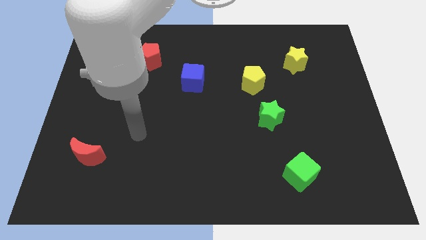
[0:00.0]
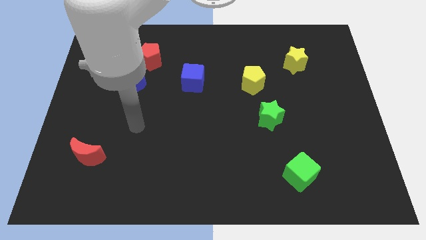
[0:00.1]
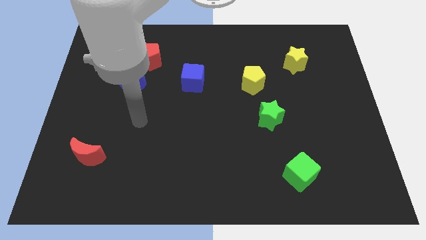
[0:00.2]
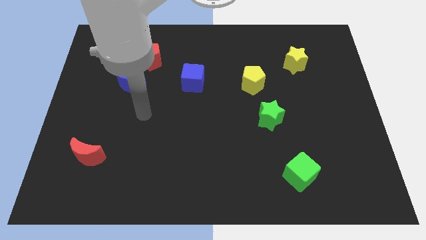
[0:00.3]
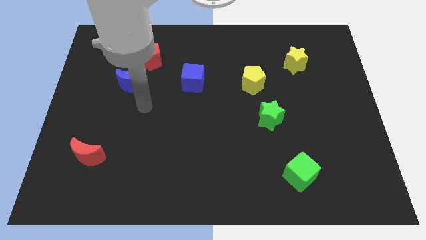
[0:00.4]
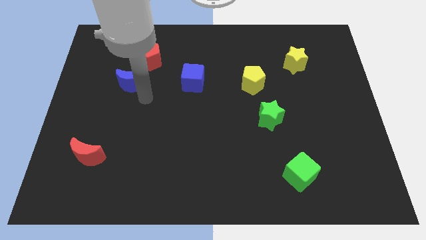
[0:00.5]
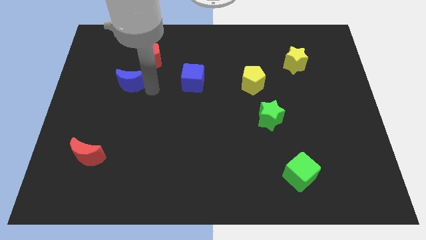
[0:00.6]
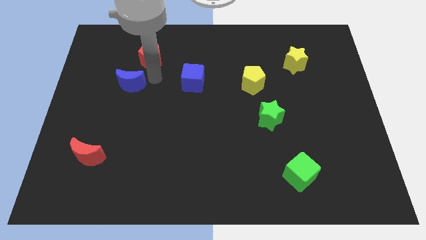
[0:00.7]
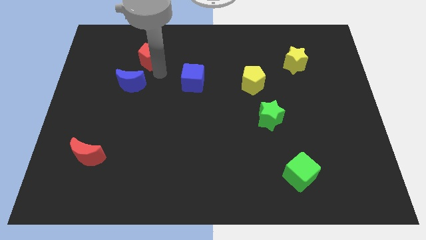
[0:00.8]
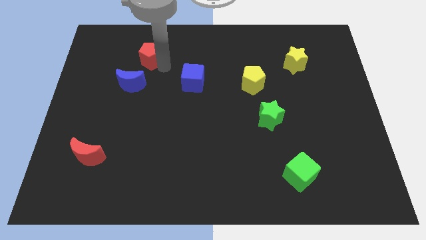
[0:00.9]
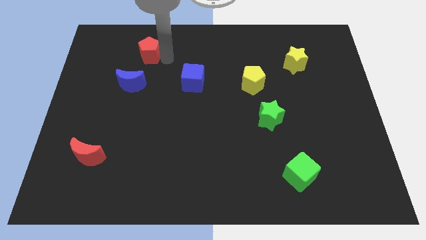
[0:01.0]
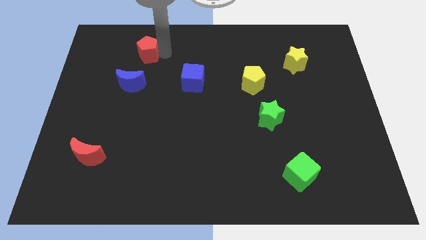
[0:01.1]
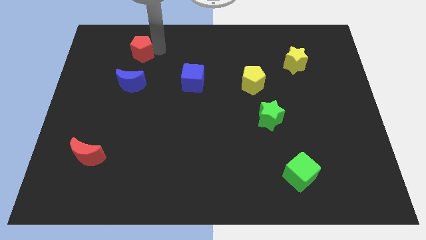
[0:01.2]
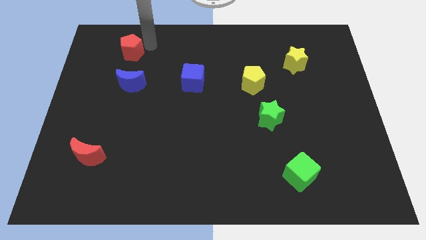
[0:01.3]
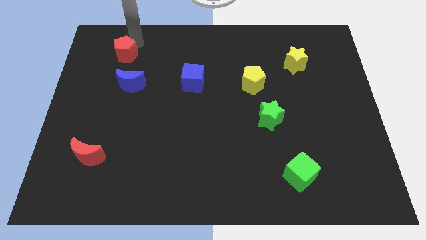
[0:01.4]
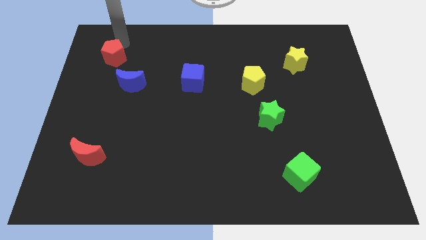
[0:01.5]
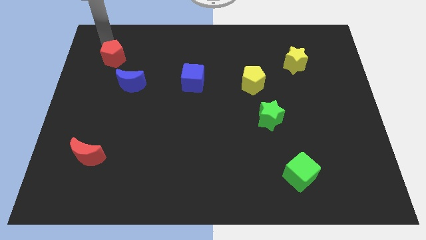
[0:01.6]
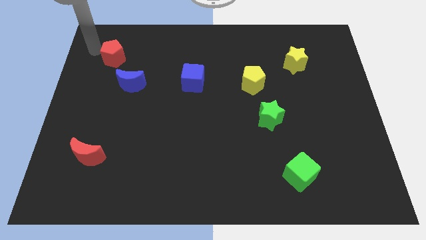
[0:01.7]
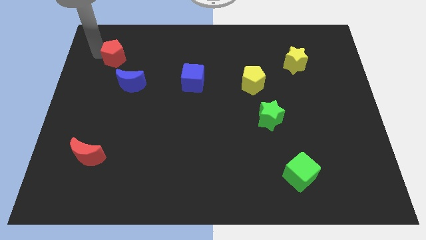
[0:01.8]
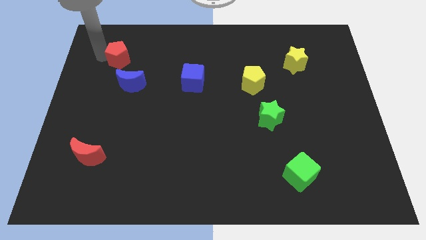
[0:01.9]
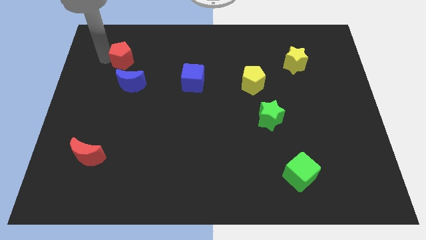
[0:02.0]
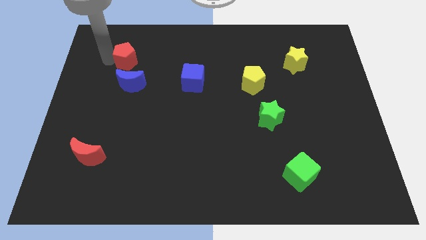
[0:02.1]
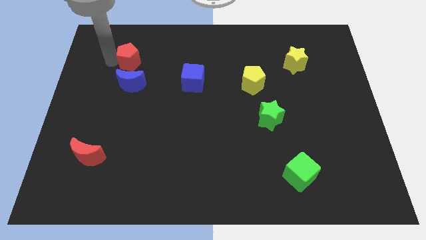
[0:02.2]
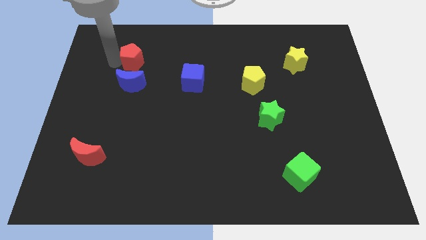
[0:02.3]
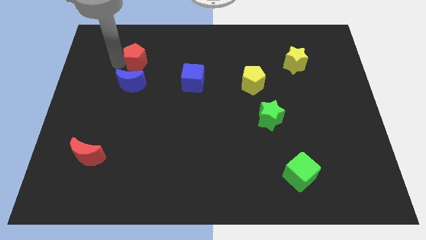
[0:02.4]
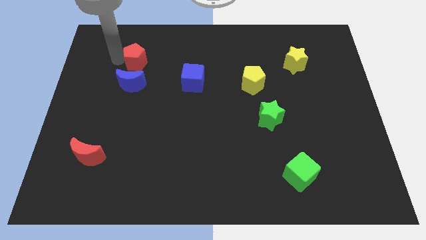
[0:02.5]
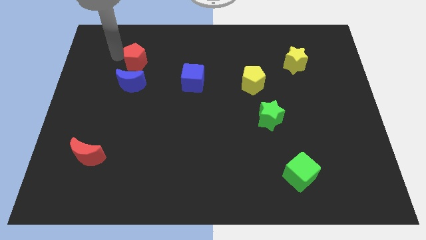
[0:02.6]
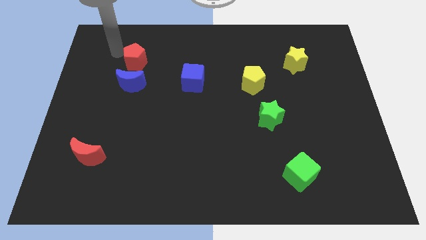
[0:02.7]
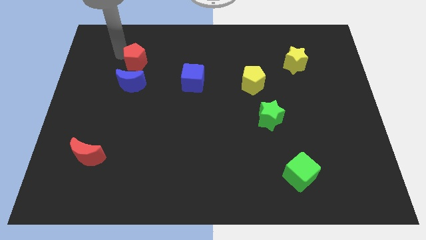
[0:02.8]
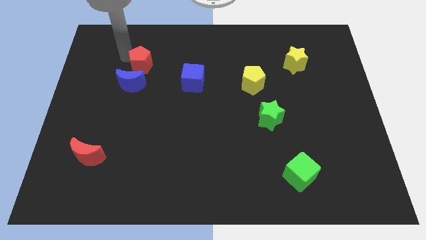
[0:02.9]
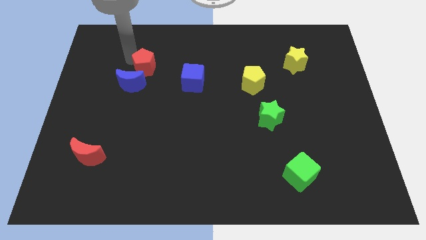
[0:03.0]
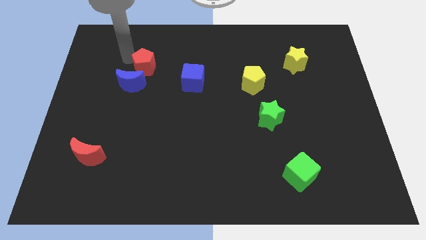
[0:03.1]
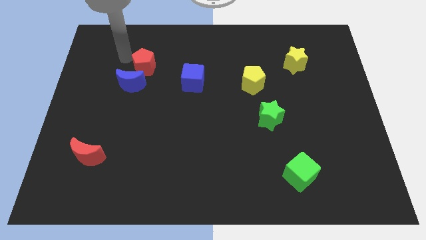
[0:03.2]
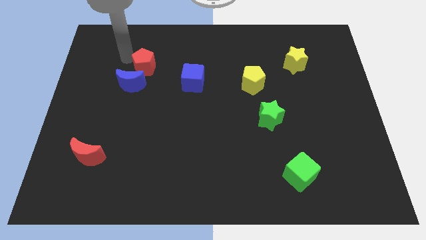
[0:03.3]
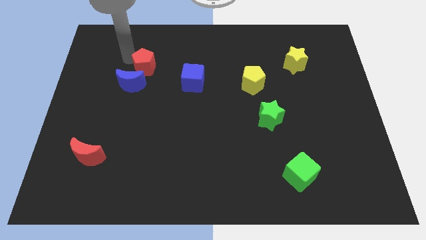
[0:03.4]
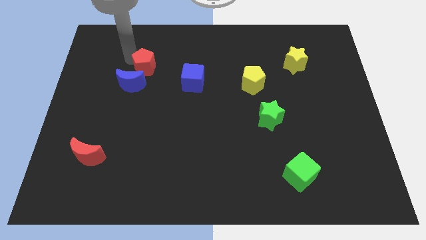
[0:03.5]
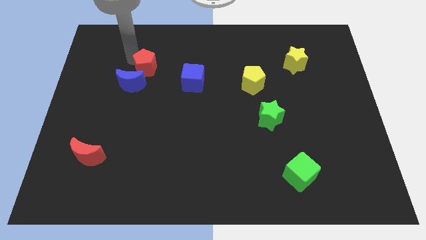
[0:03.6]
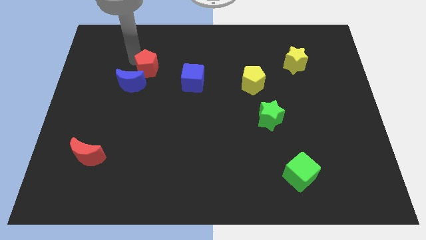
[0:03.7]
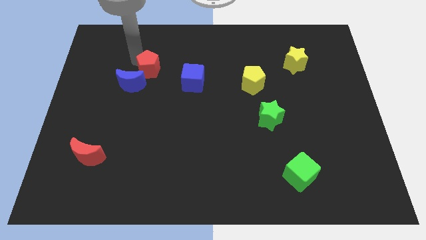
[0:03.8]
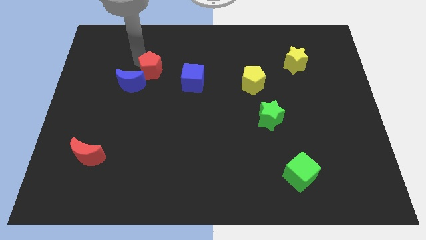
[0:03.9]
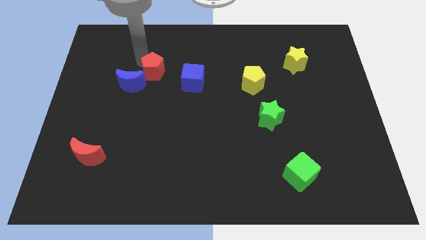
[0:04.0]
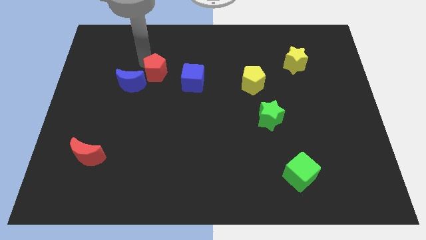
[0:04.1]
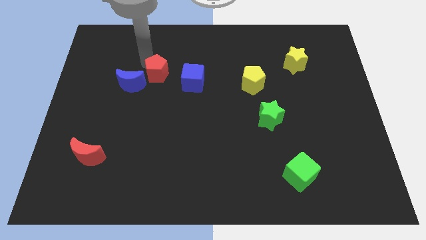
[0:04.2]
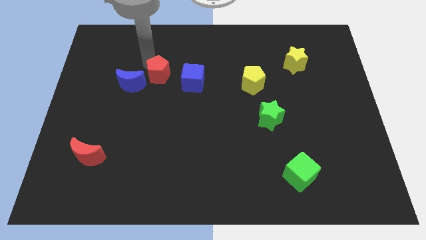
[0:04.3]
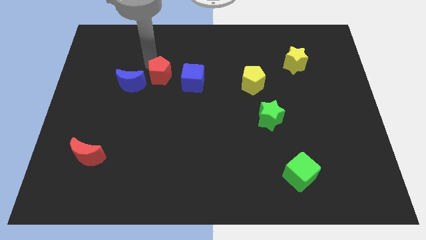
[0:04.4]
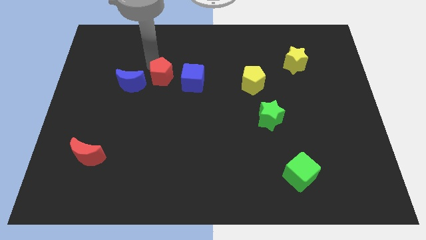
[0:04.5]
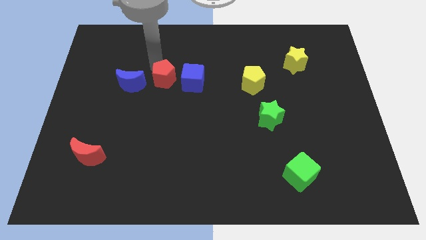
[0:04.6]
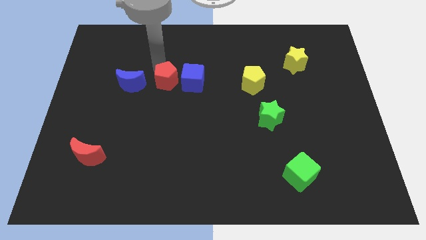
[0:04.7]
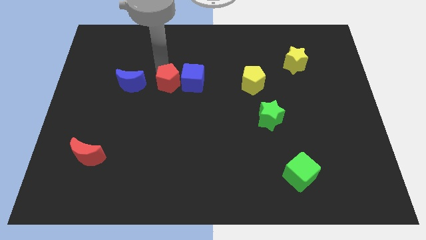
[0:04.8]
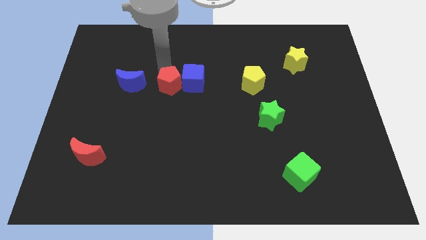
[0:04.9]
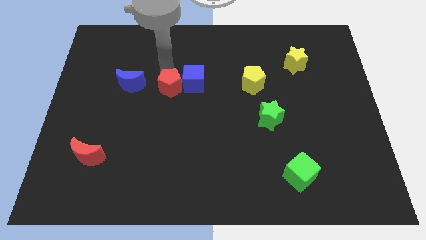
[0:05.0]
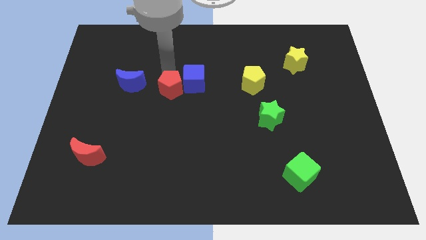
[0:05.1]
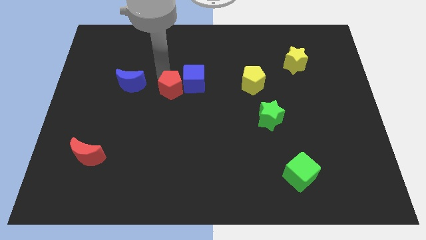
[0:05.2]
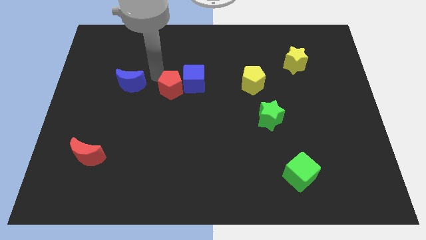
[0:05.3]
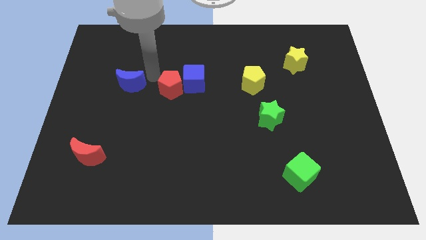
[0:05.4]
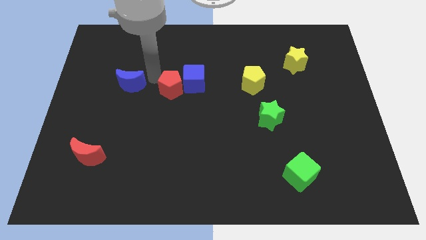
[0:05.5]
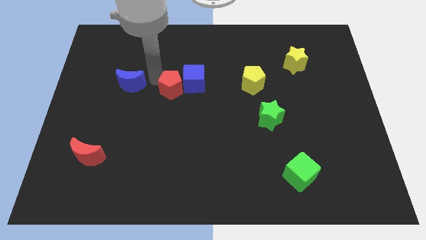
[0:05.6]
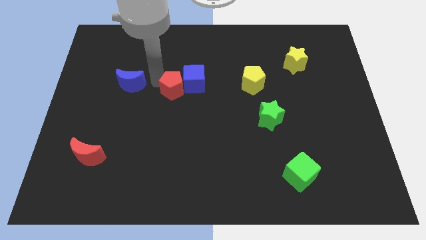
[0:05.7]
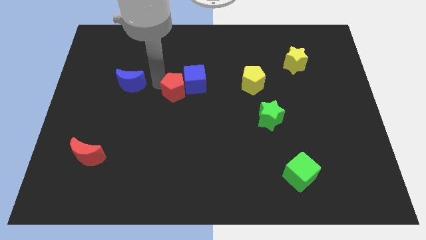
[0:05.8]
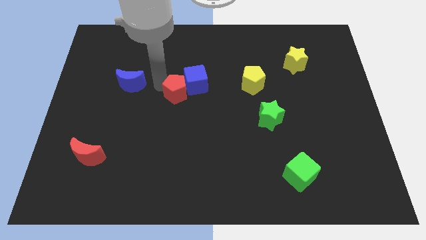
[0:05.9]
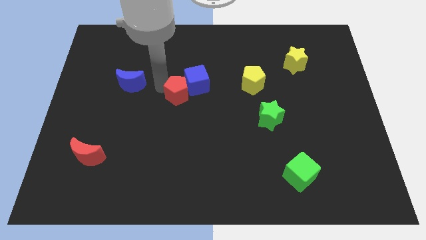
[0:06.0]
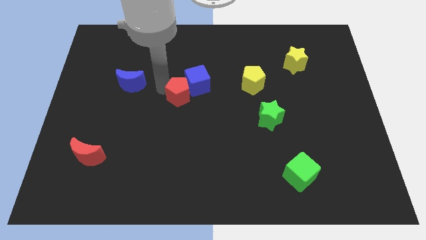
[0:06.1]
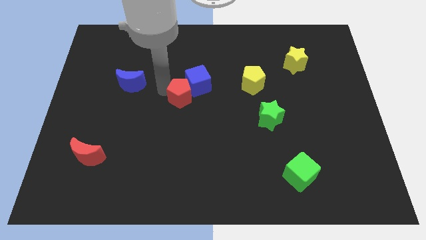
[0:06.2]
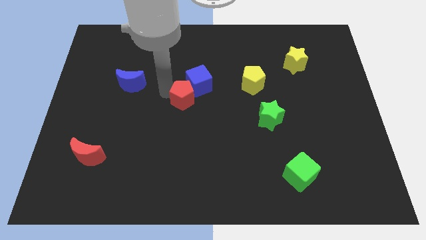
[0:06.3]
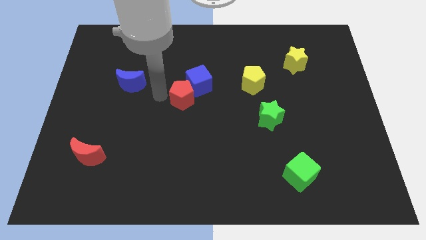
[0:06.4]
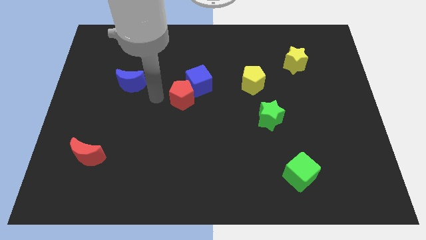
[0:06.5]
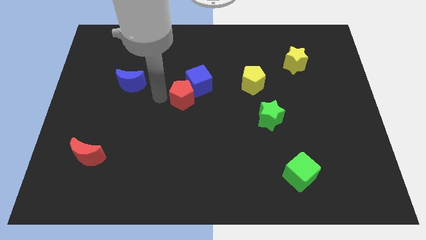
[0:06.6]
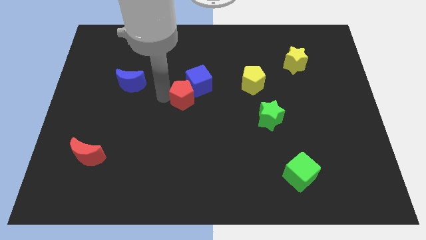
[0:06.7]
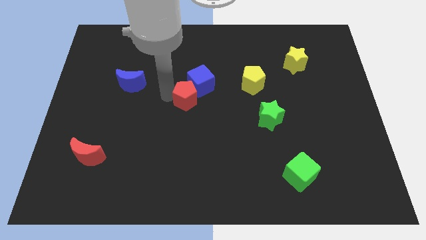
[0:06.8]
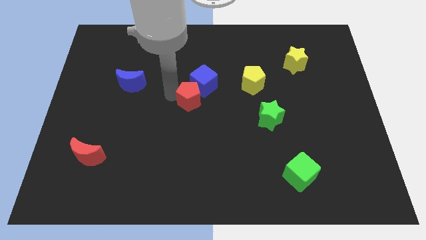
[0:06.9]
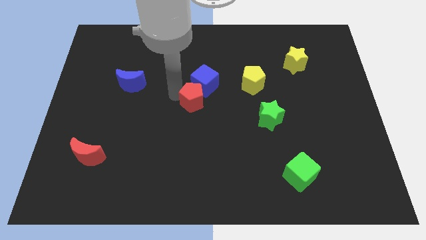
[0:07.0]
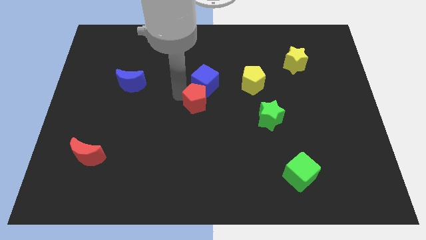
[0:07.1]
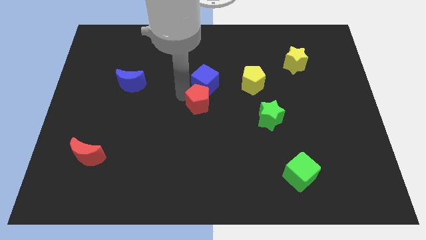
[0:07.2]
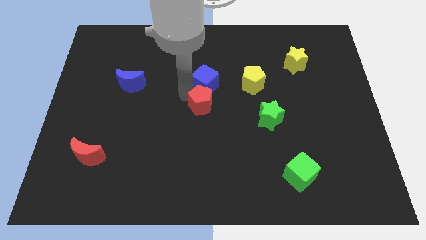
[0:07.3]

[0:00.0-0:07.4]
put the red pentagon to the bottom right of the blue cube
